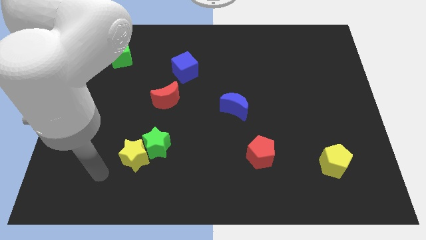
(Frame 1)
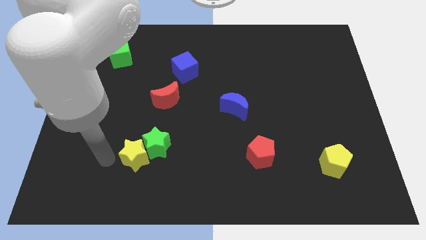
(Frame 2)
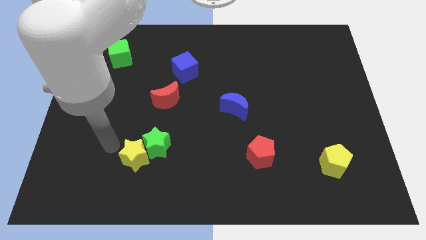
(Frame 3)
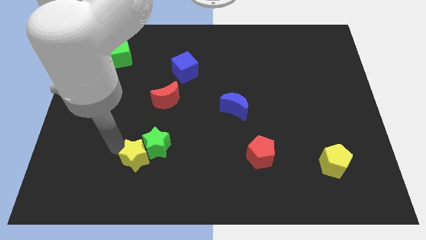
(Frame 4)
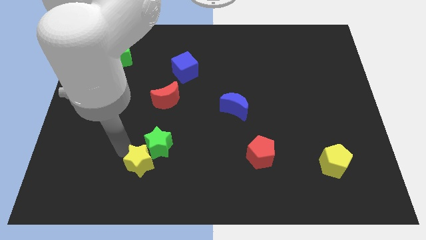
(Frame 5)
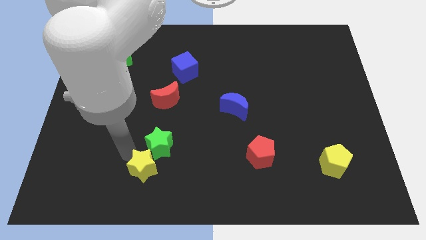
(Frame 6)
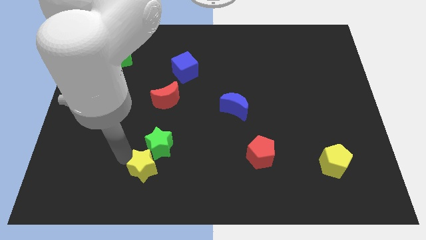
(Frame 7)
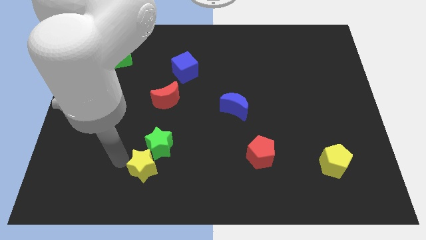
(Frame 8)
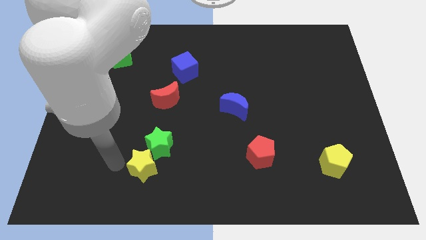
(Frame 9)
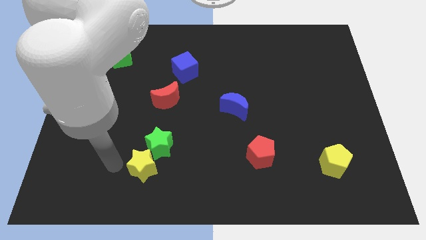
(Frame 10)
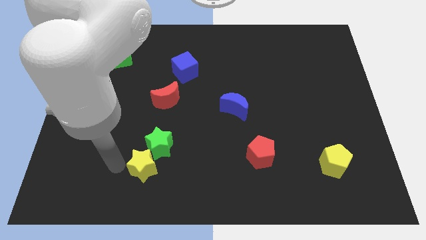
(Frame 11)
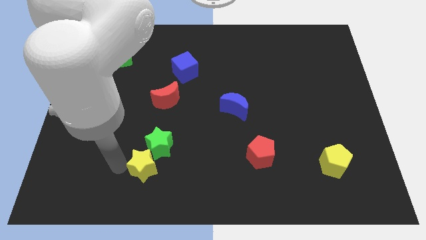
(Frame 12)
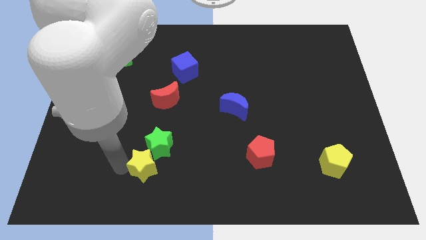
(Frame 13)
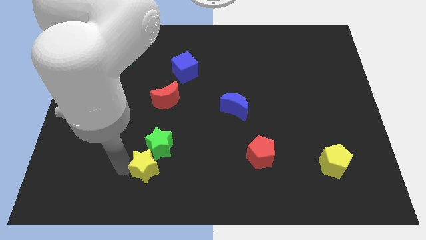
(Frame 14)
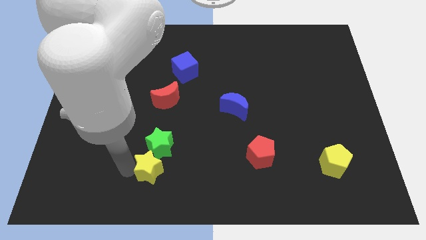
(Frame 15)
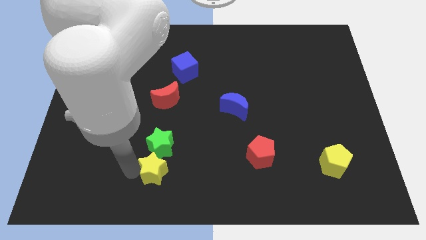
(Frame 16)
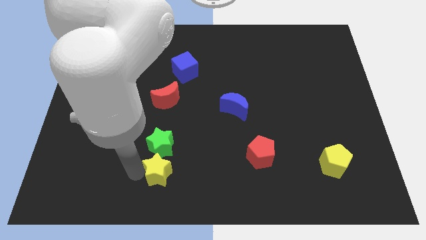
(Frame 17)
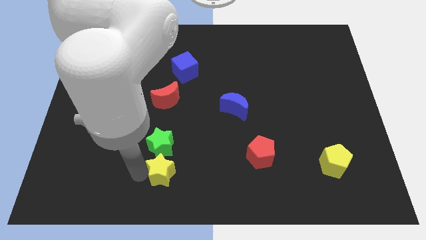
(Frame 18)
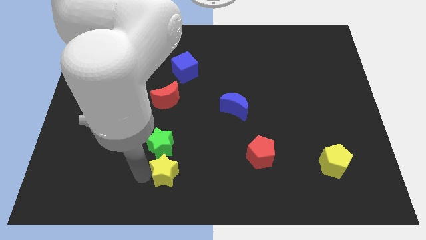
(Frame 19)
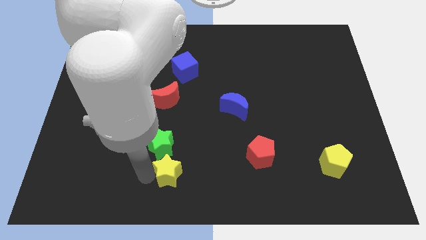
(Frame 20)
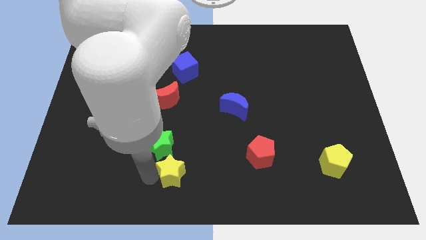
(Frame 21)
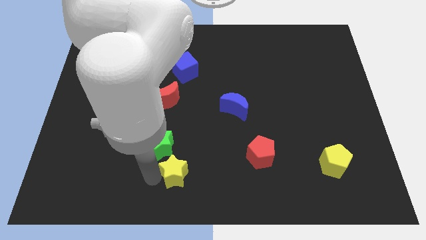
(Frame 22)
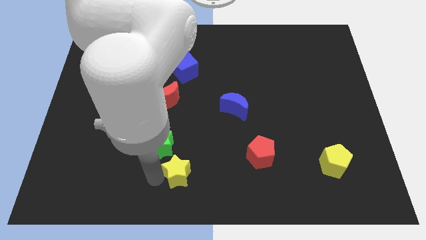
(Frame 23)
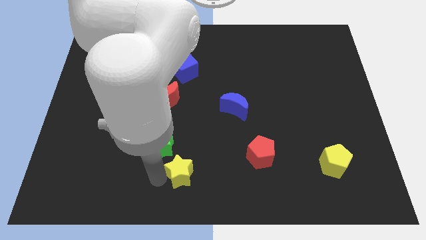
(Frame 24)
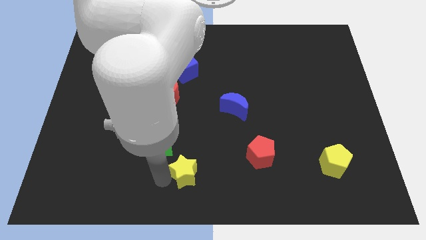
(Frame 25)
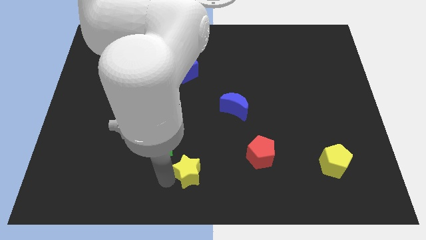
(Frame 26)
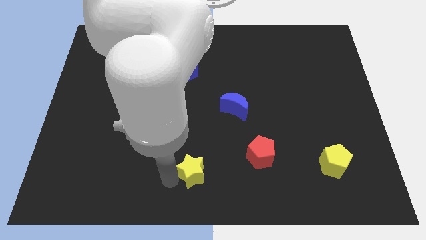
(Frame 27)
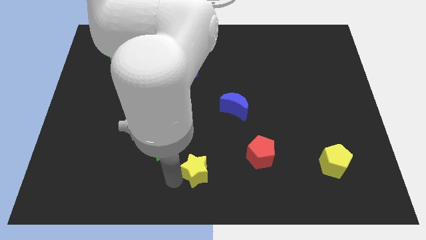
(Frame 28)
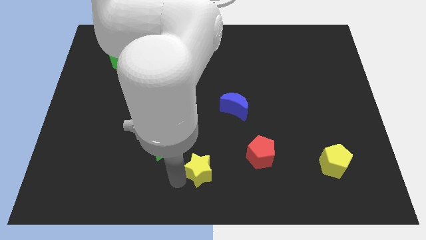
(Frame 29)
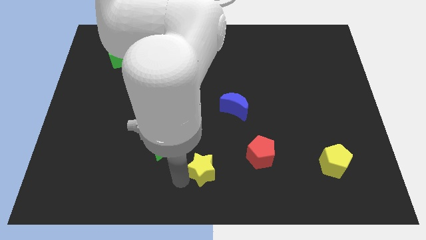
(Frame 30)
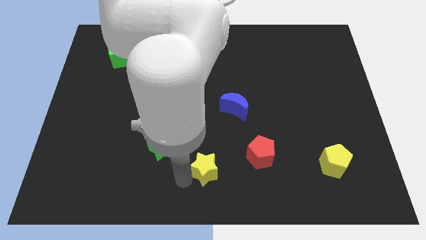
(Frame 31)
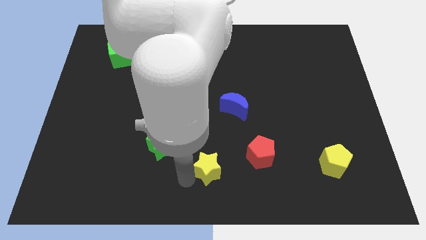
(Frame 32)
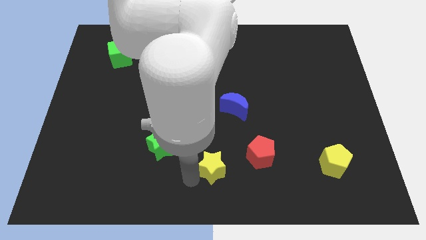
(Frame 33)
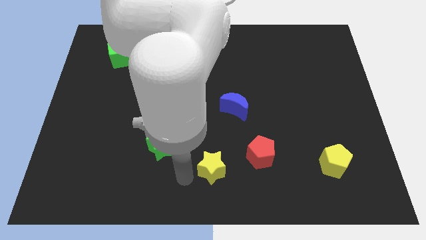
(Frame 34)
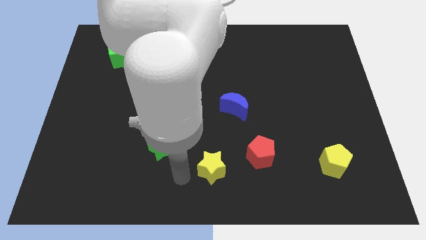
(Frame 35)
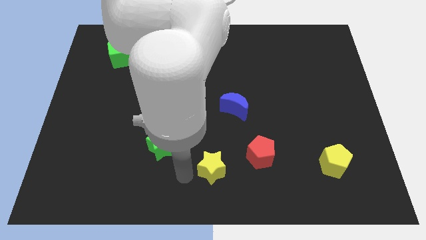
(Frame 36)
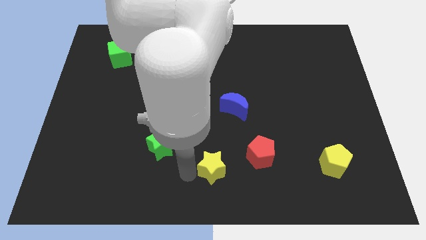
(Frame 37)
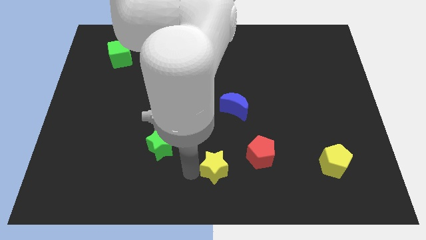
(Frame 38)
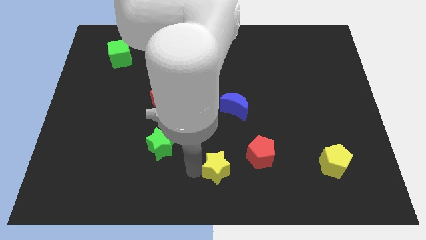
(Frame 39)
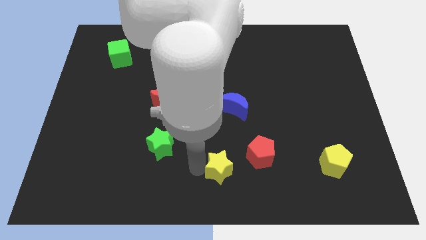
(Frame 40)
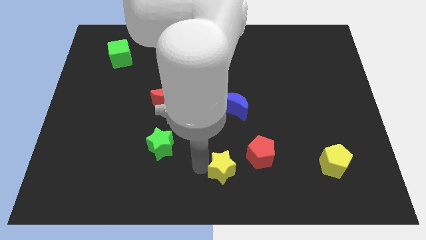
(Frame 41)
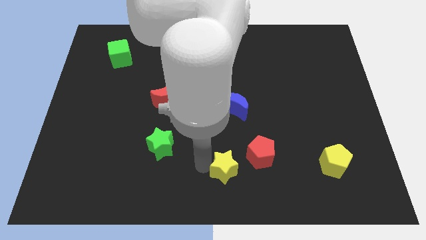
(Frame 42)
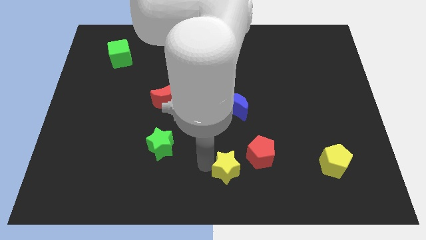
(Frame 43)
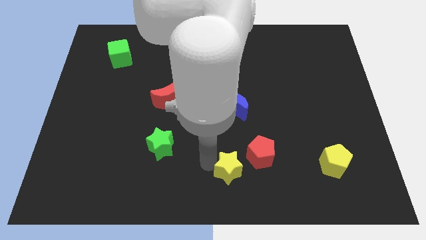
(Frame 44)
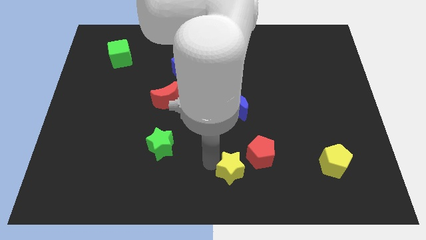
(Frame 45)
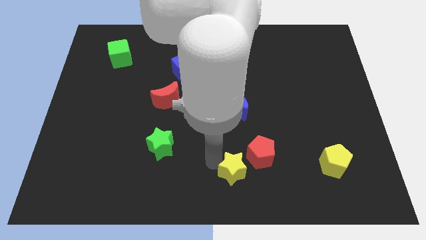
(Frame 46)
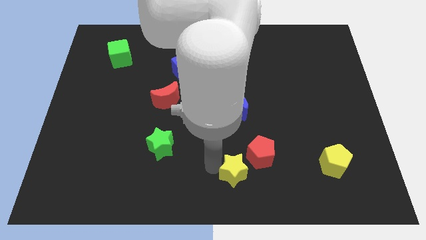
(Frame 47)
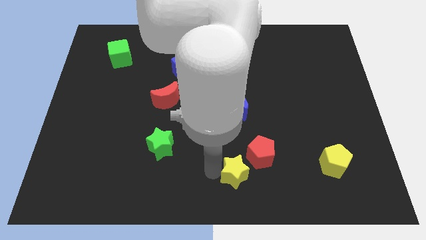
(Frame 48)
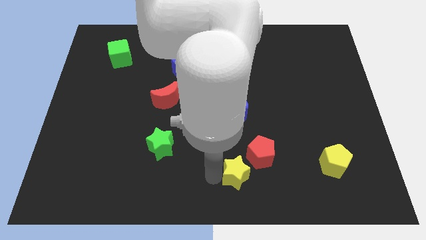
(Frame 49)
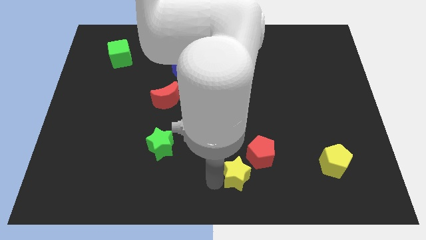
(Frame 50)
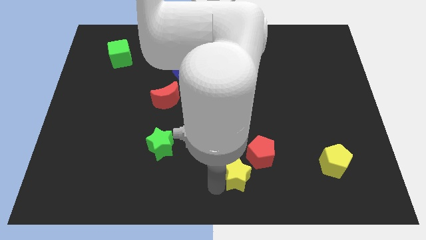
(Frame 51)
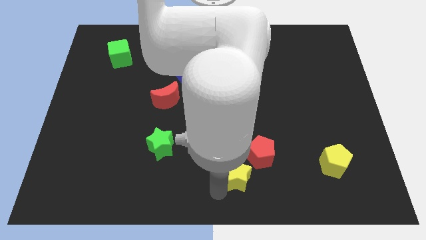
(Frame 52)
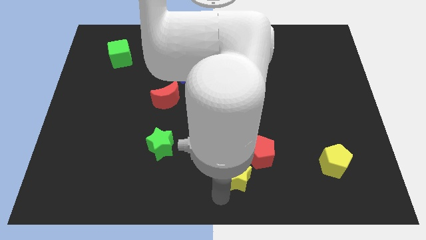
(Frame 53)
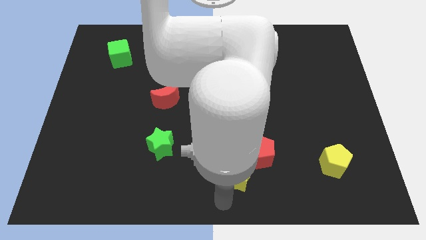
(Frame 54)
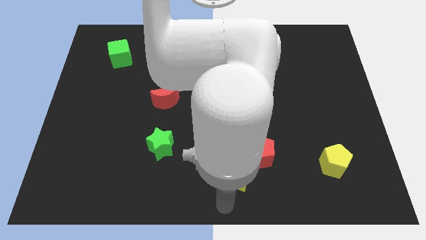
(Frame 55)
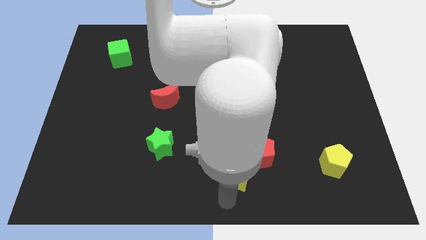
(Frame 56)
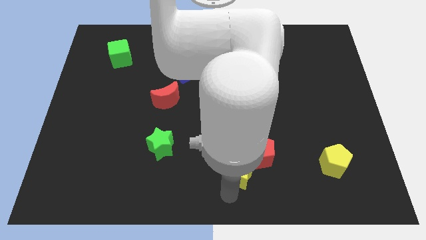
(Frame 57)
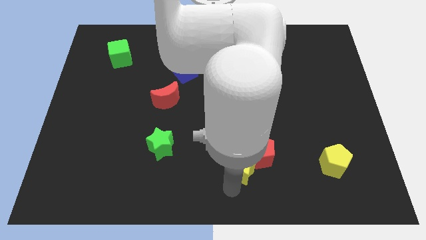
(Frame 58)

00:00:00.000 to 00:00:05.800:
push the yellow star next to the red pentagon
